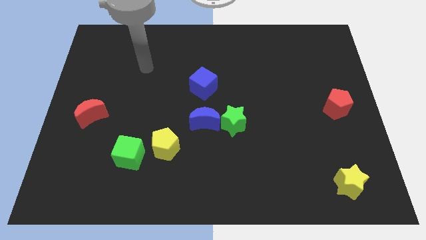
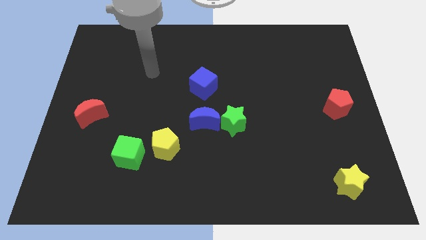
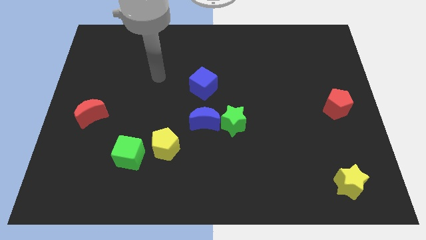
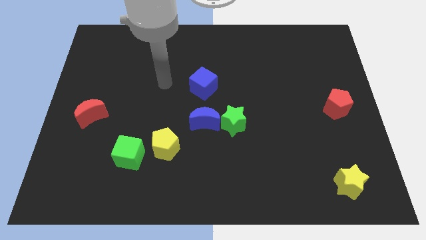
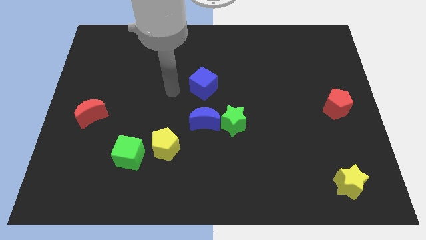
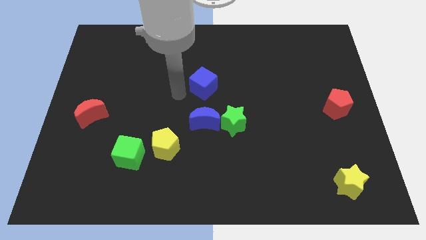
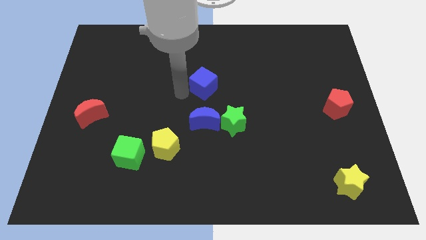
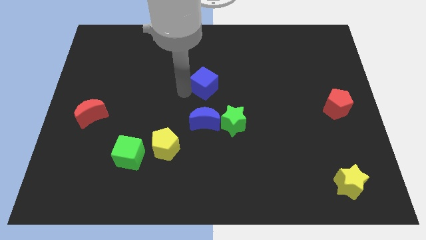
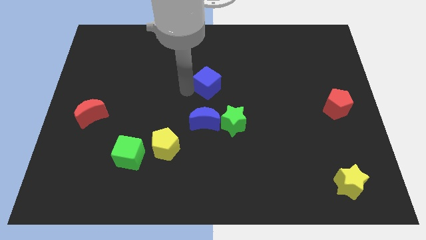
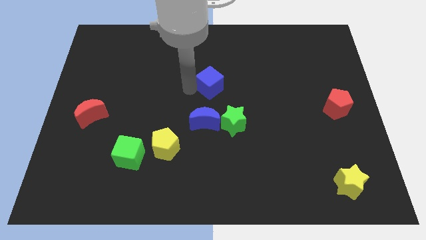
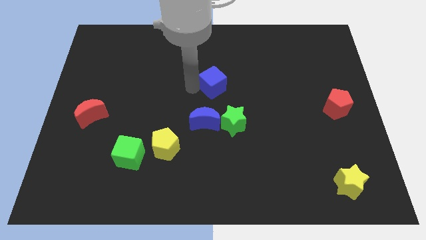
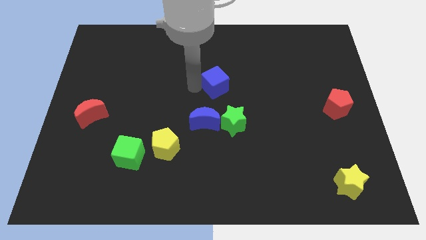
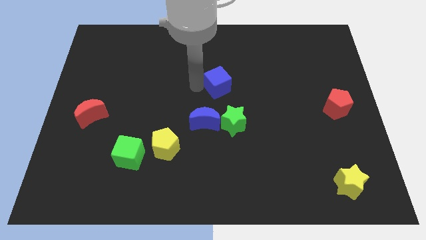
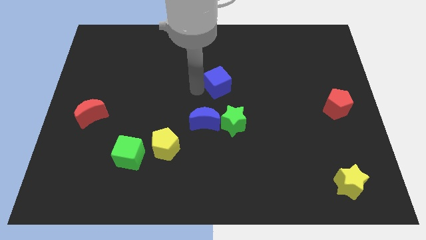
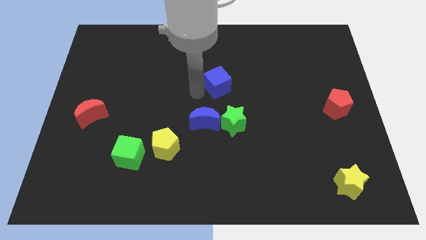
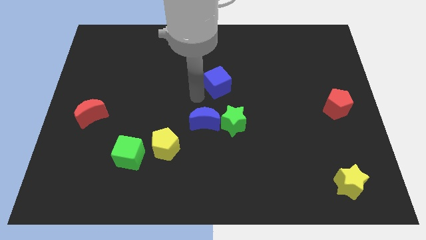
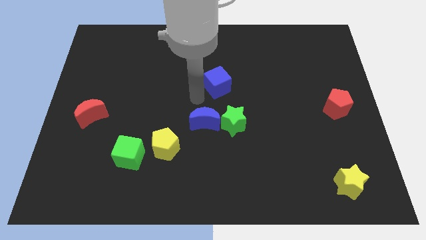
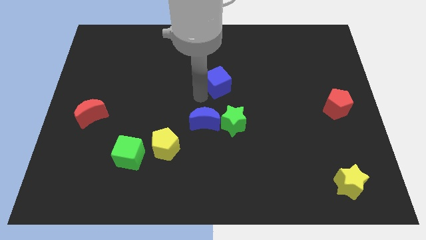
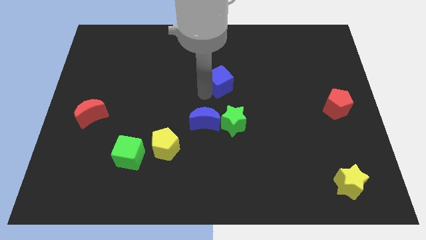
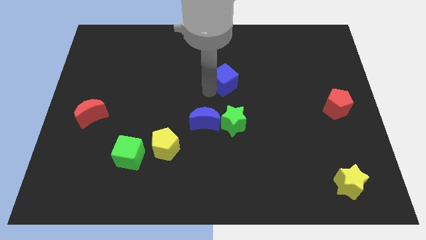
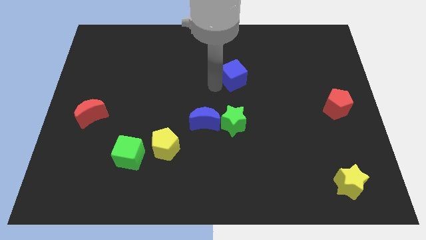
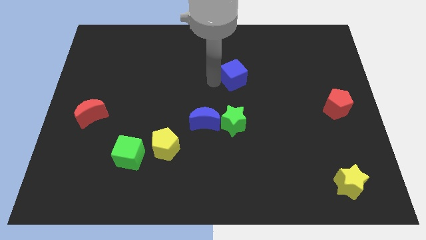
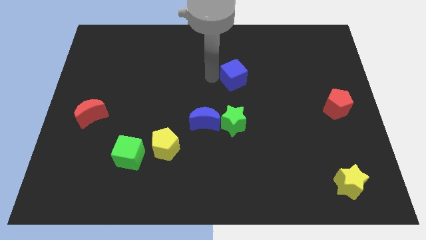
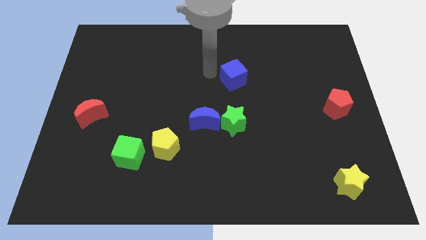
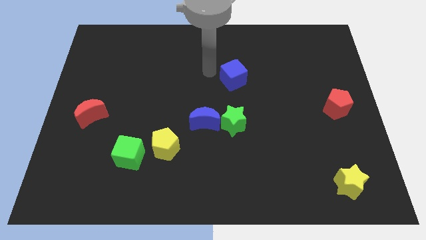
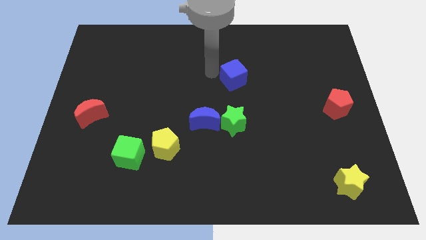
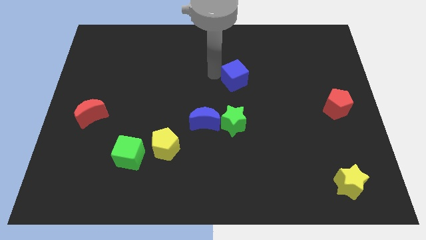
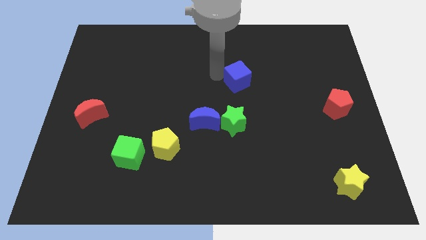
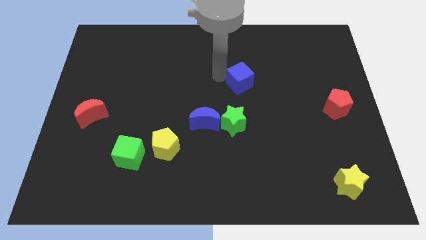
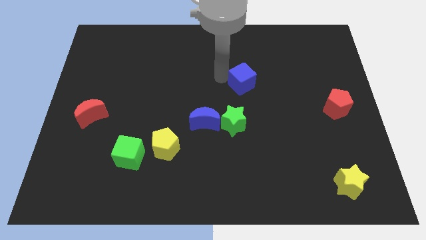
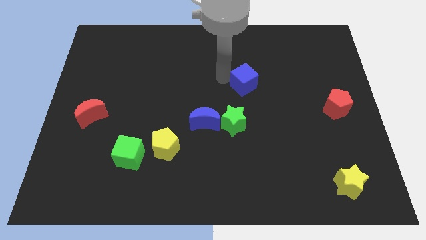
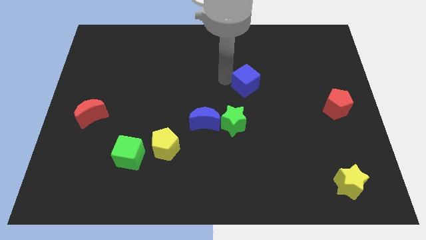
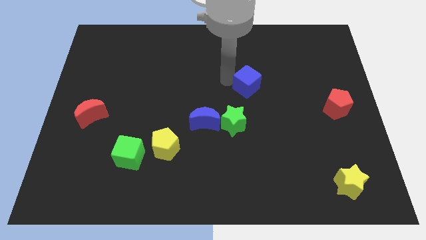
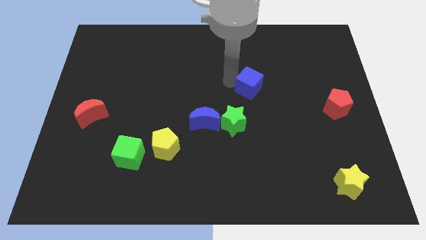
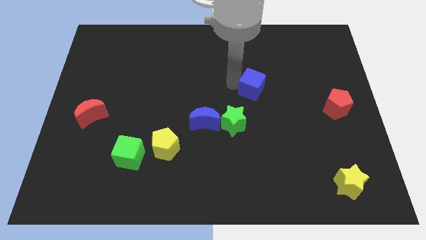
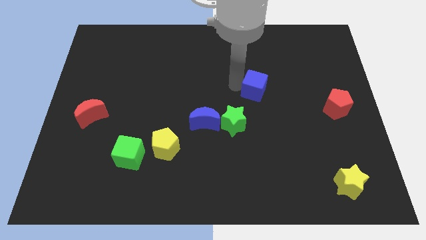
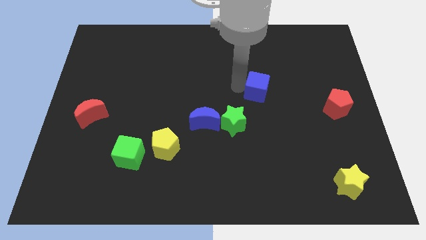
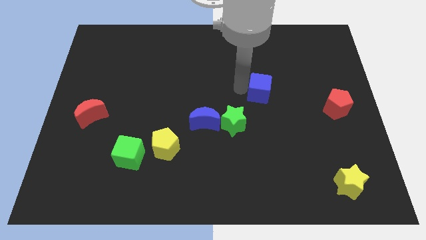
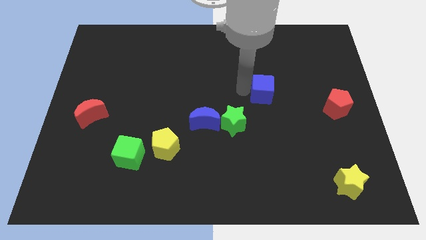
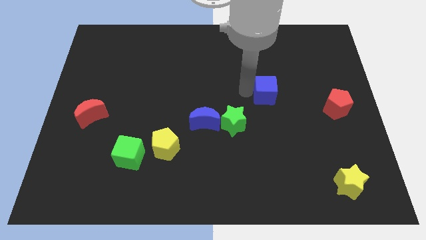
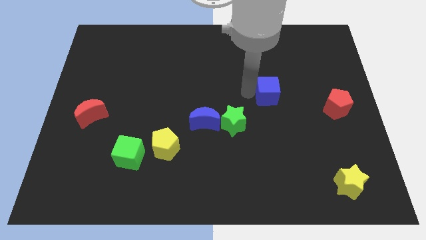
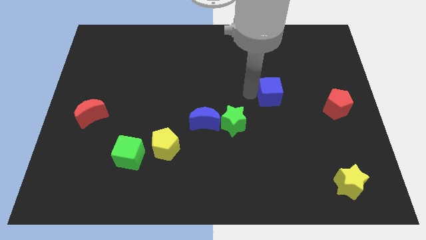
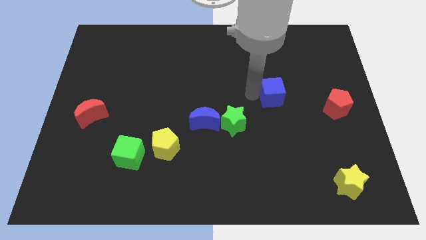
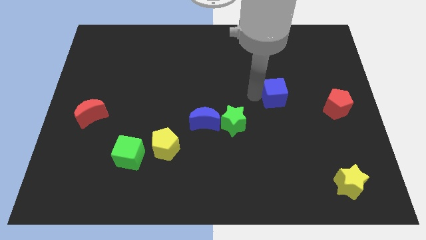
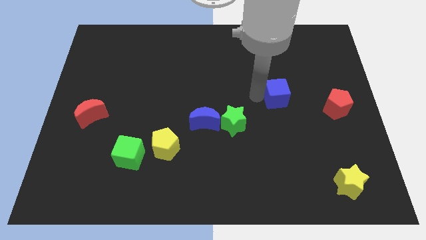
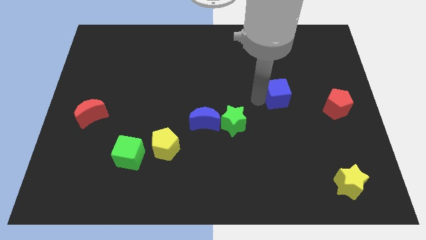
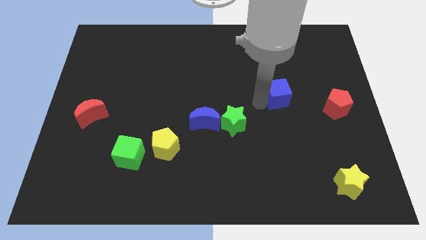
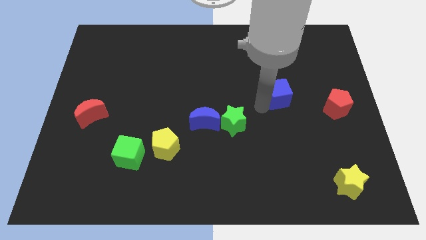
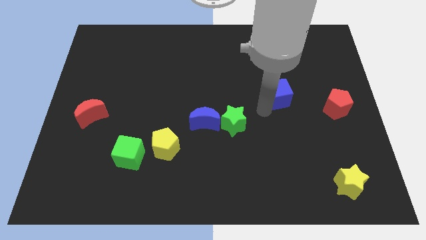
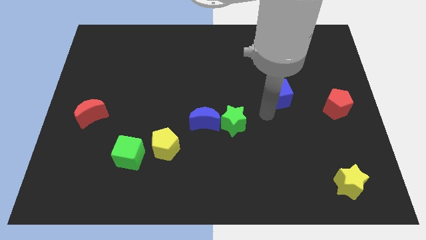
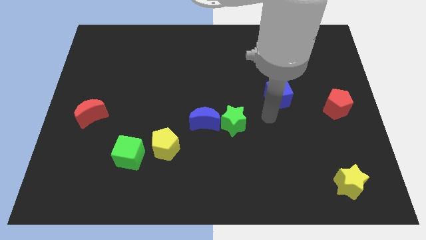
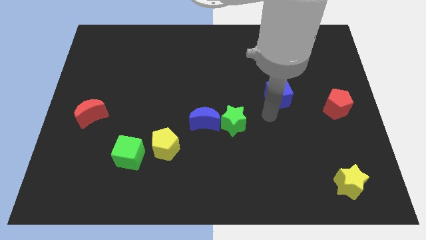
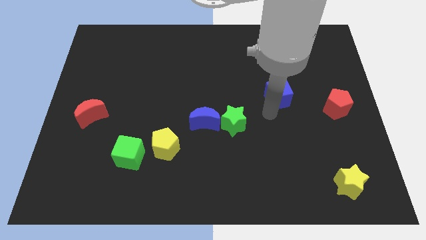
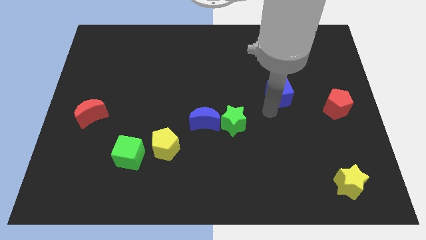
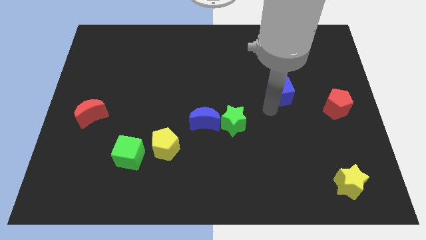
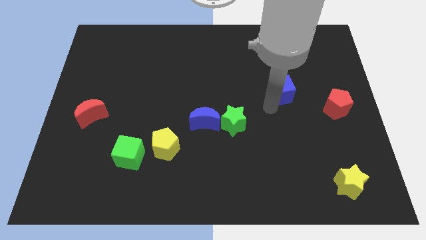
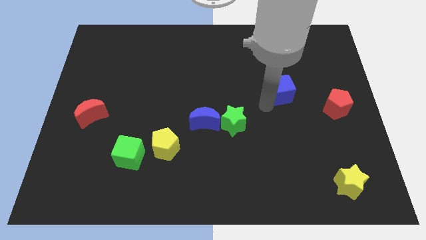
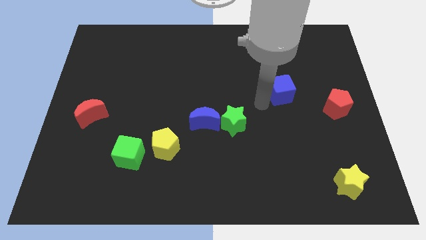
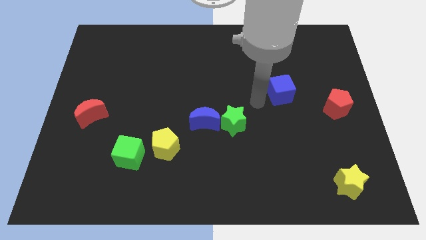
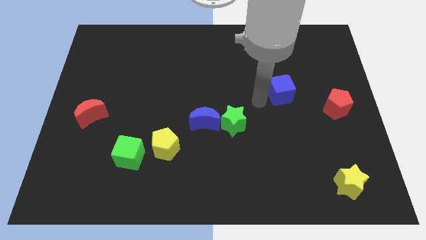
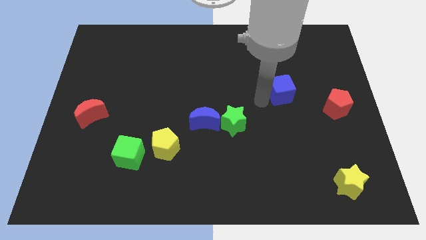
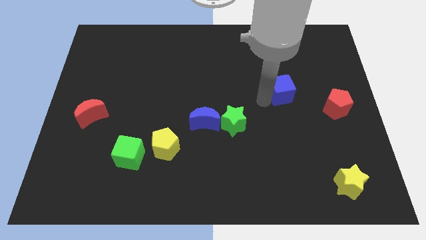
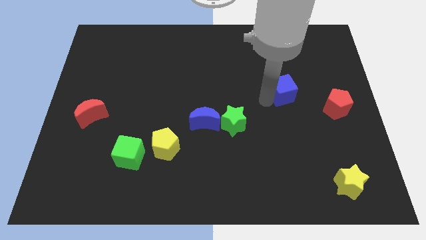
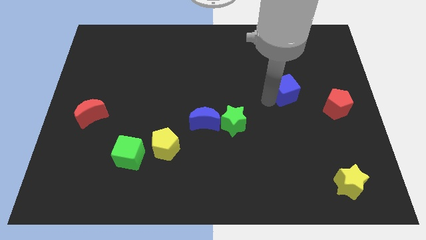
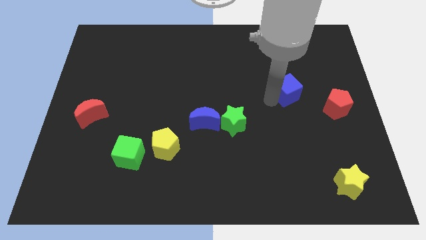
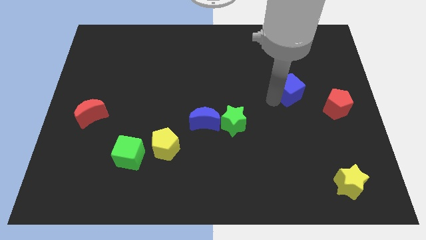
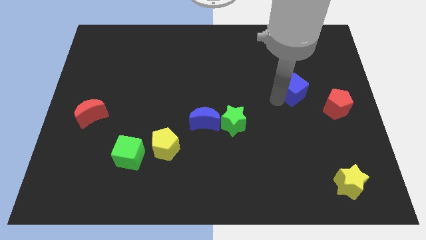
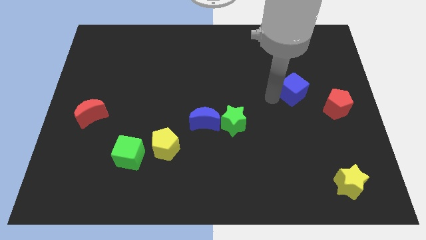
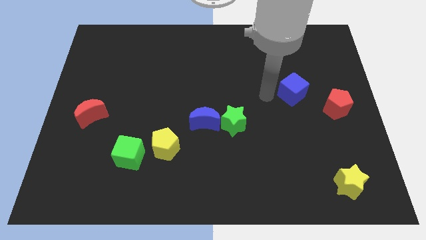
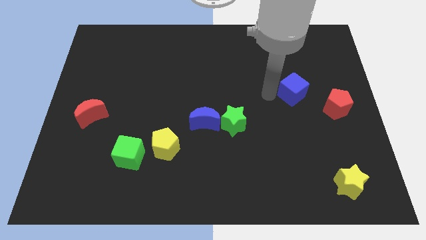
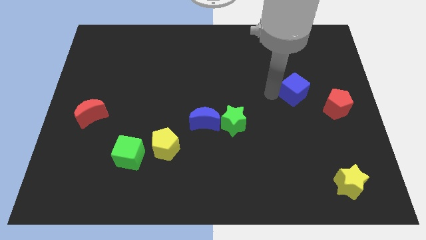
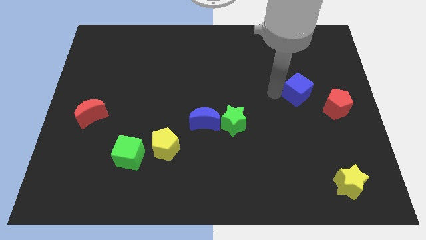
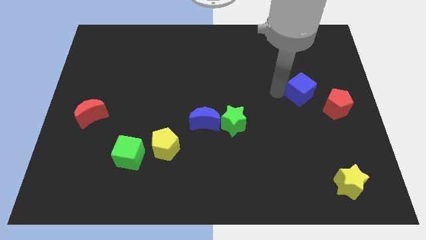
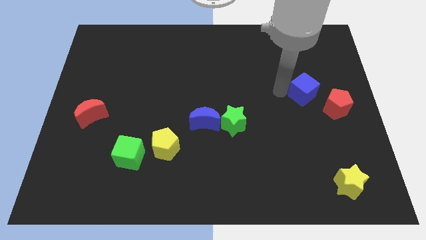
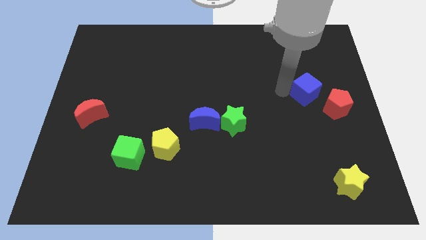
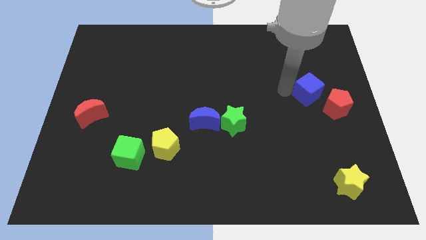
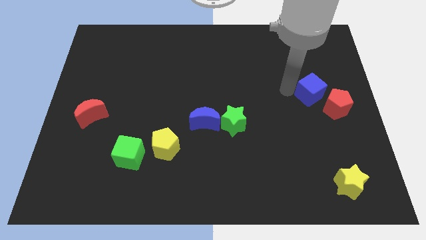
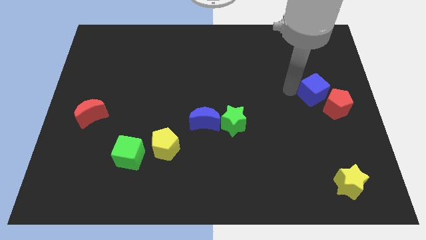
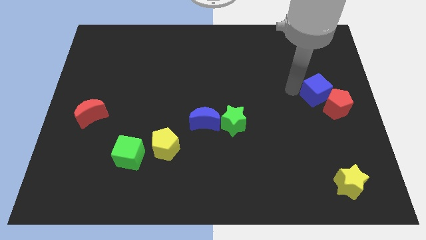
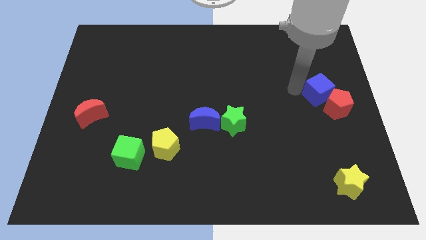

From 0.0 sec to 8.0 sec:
put the blue cube to the right side
